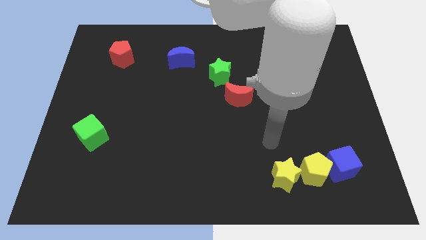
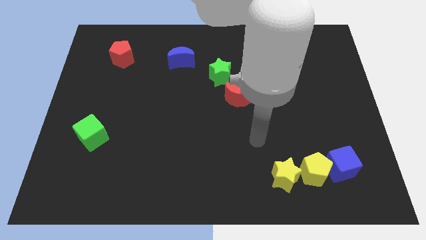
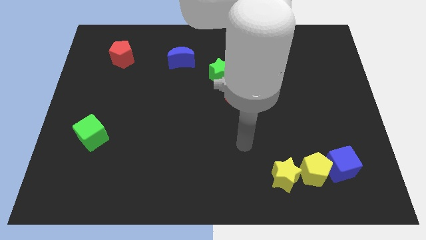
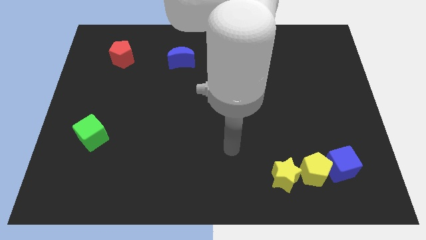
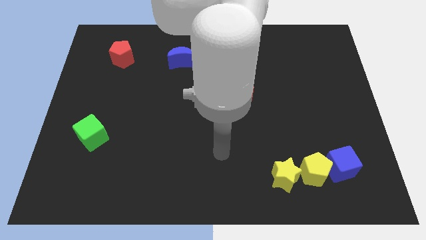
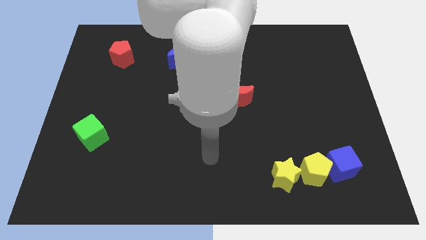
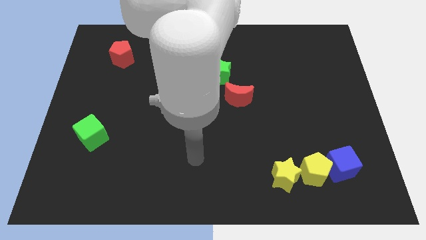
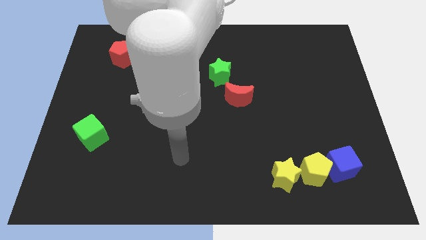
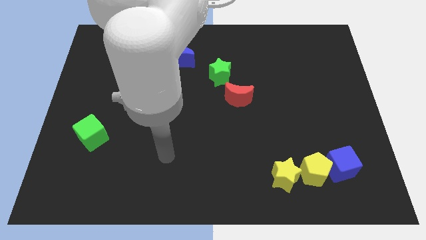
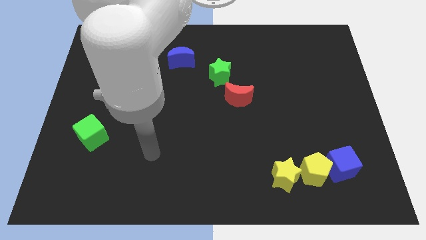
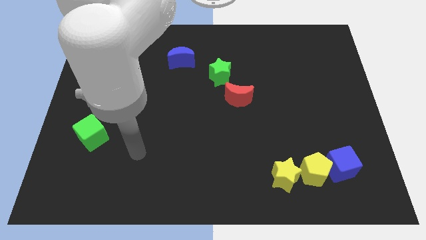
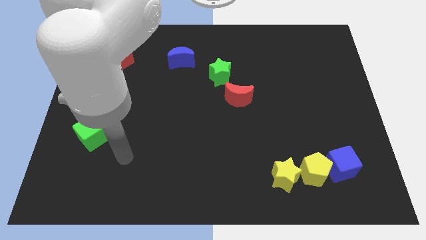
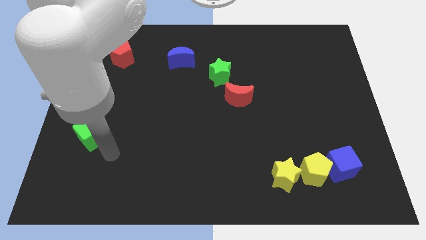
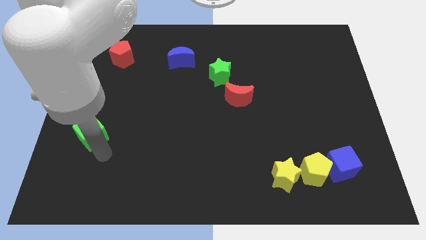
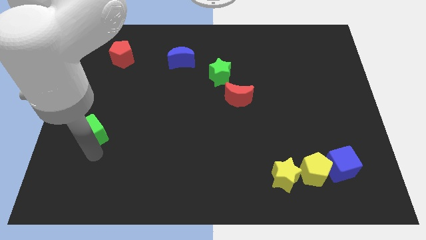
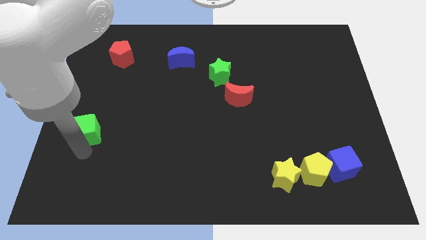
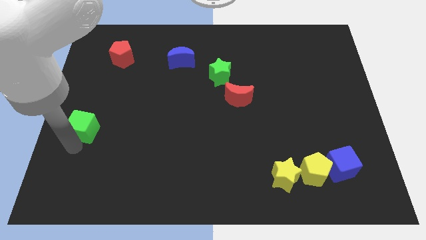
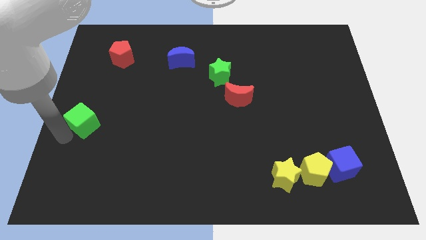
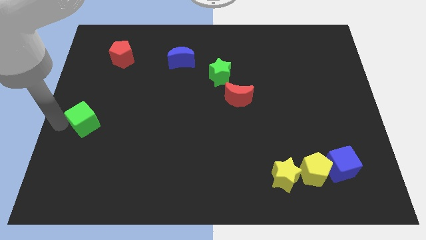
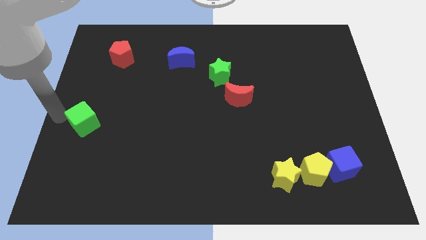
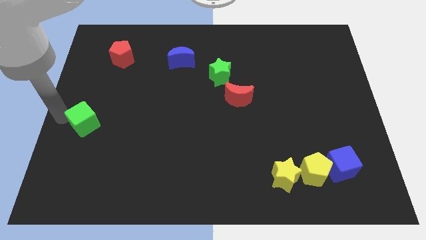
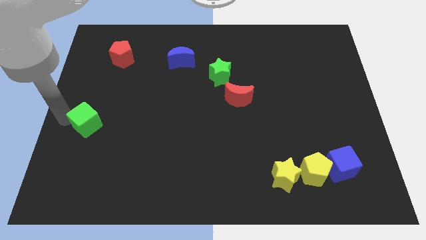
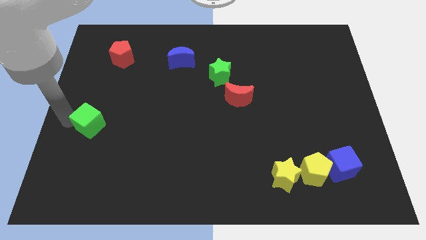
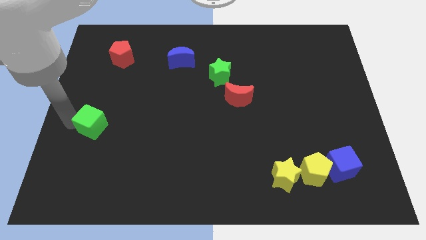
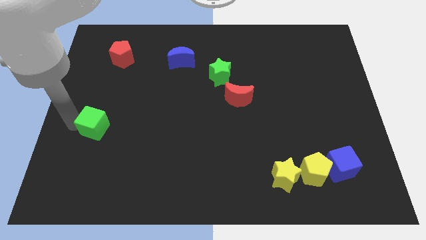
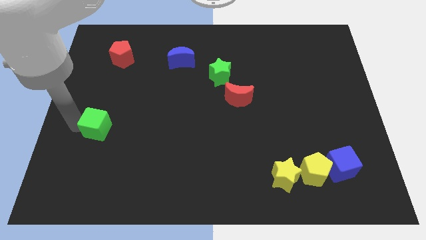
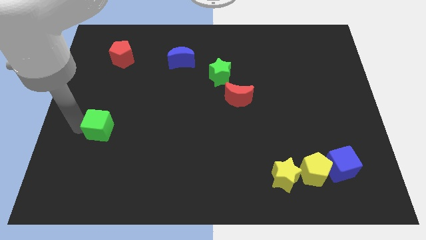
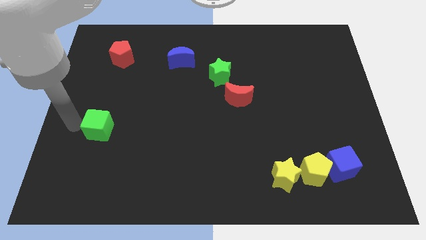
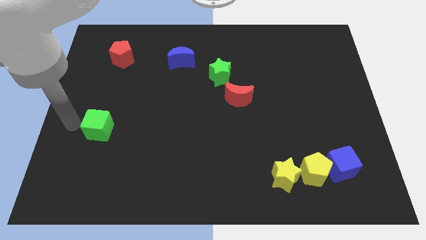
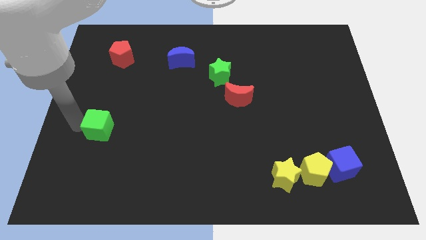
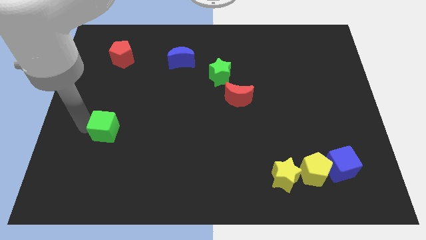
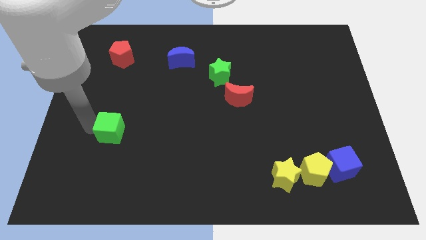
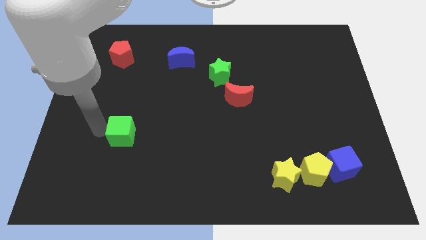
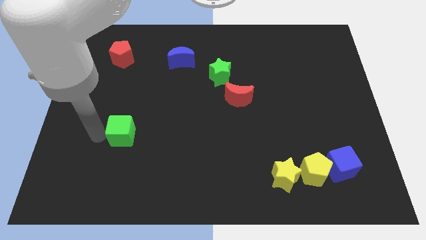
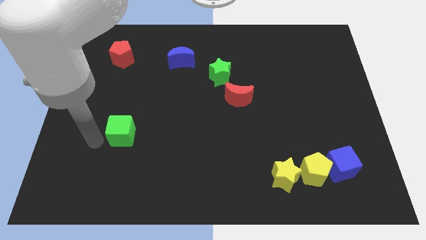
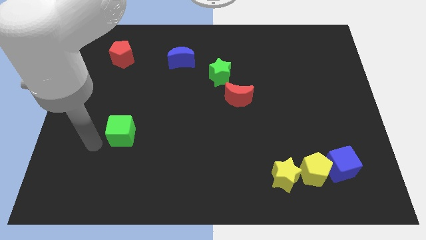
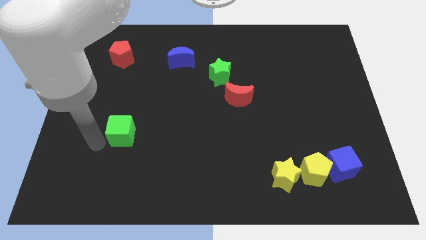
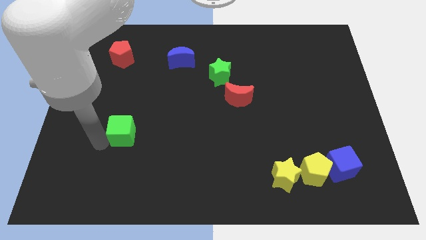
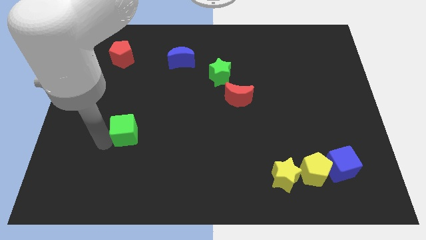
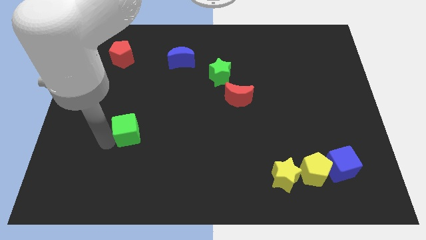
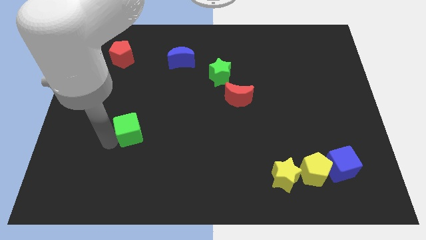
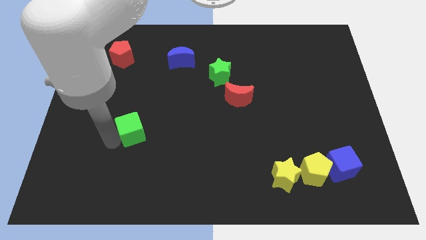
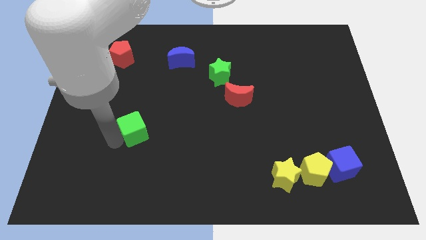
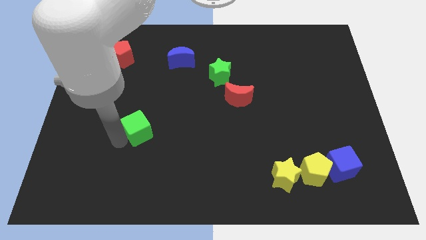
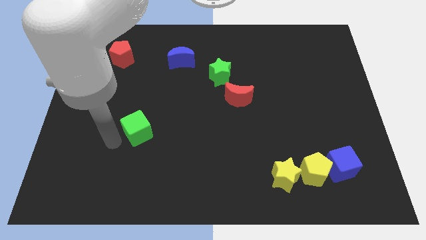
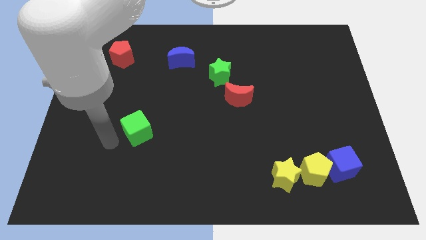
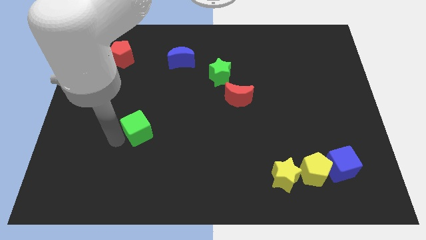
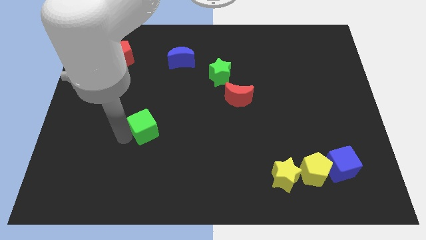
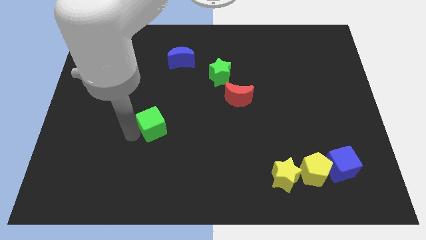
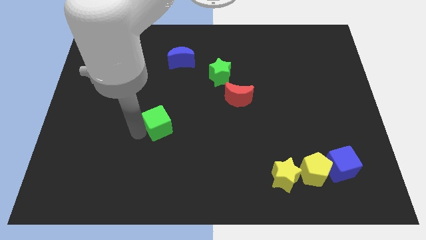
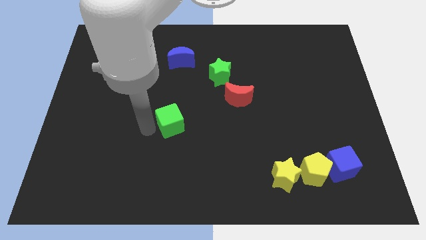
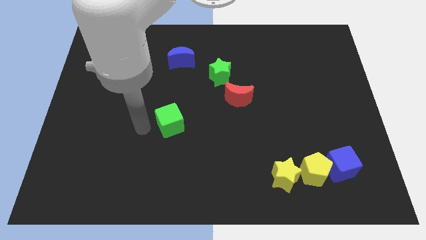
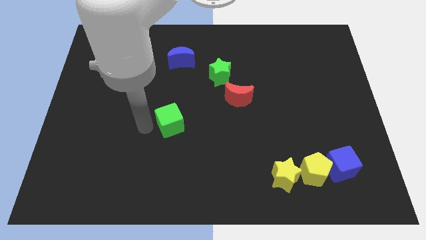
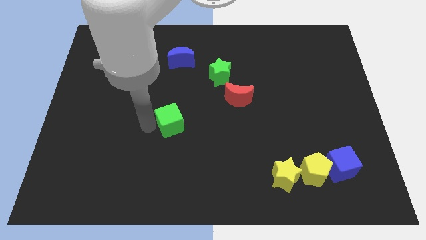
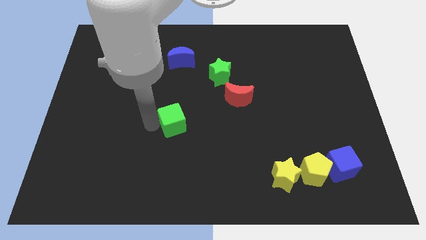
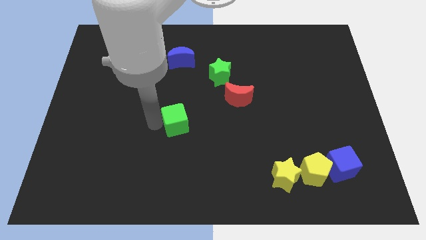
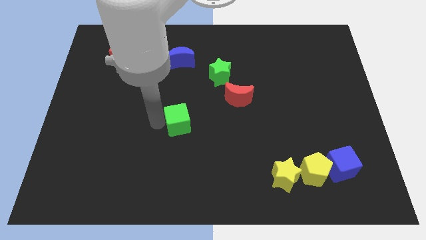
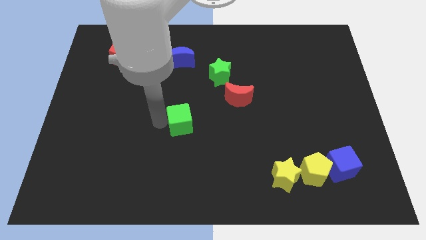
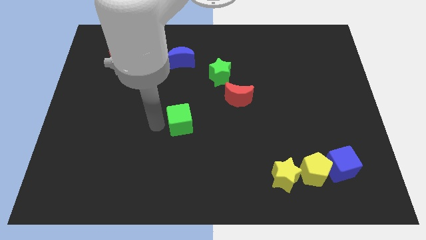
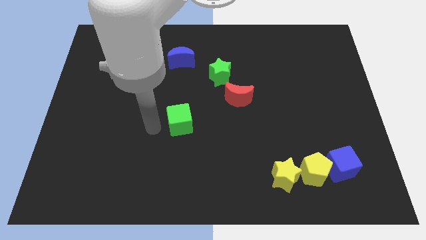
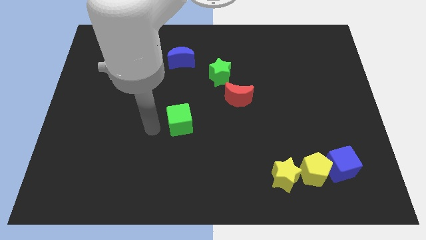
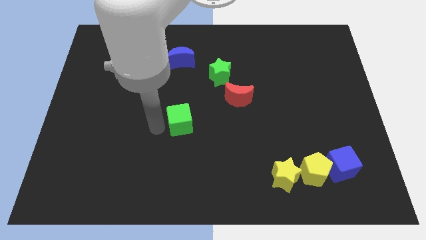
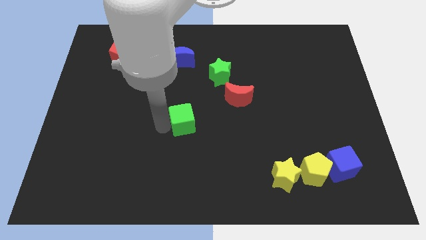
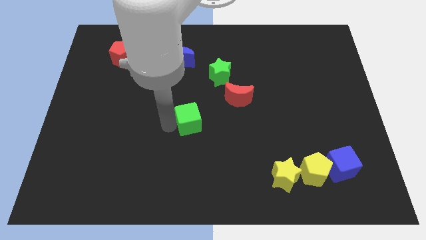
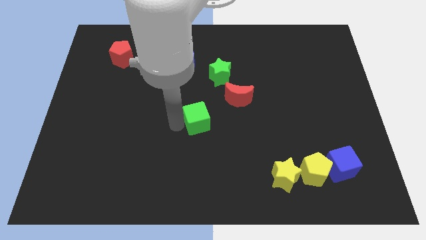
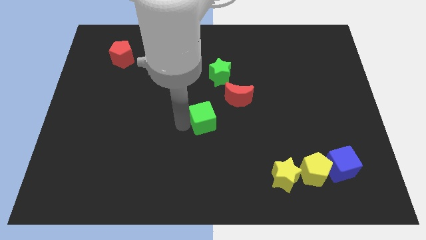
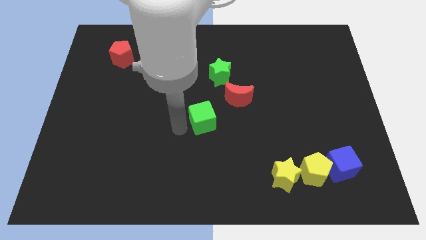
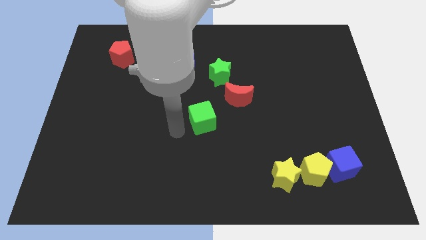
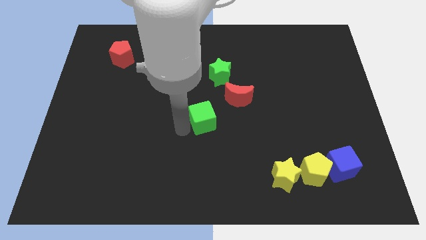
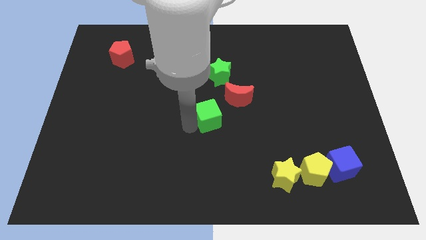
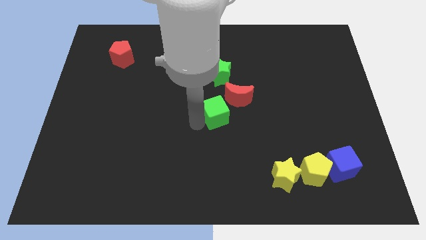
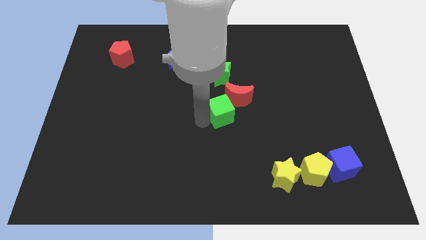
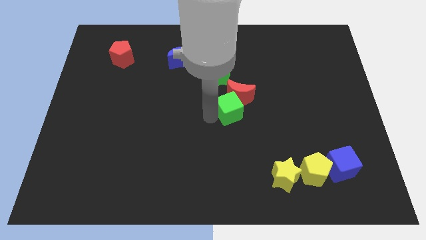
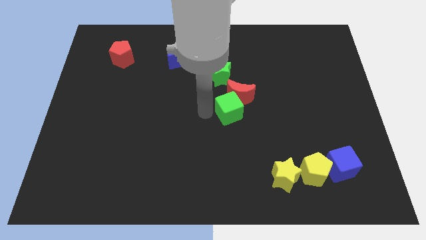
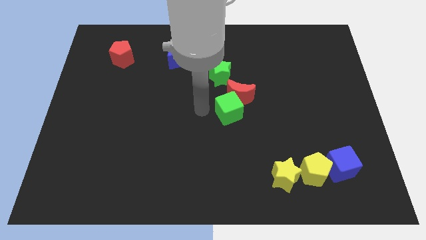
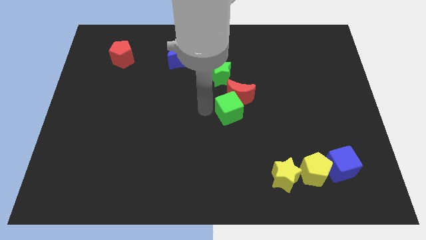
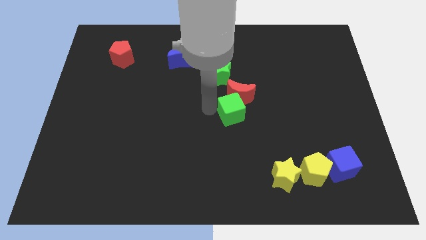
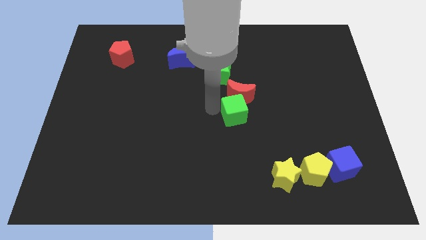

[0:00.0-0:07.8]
push the green cube to the bottom right of the red moon
